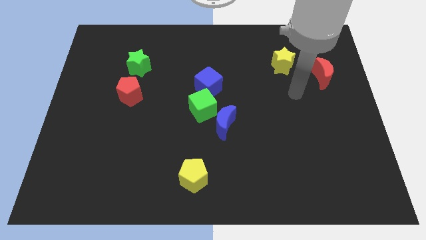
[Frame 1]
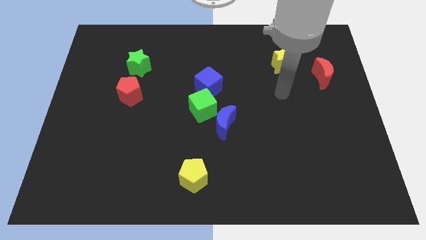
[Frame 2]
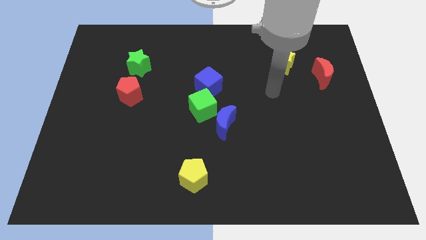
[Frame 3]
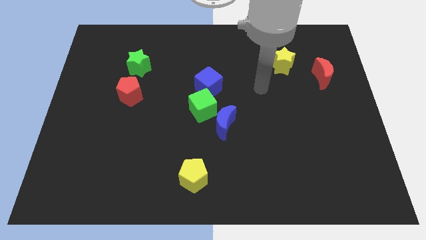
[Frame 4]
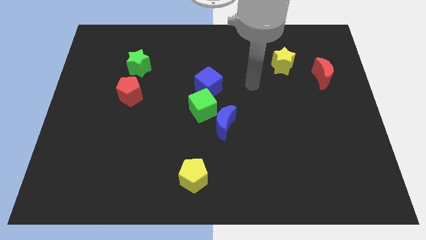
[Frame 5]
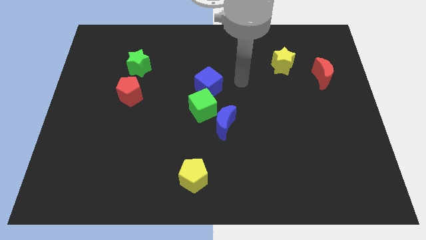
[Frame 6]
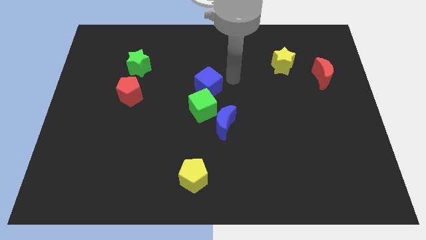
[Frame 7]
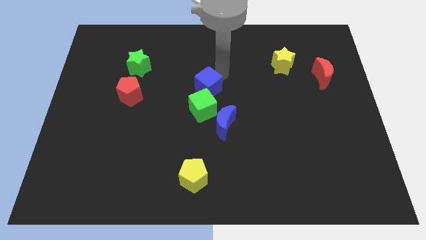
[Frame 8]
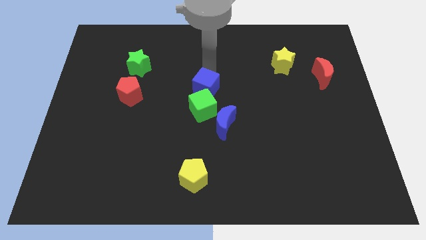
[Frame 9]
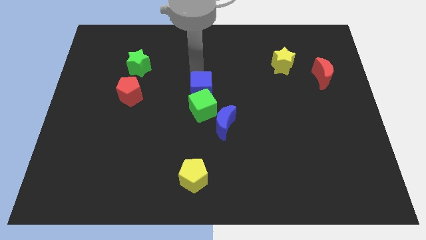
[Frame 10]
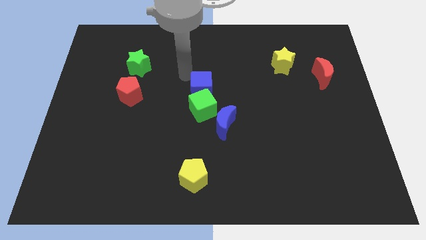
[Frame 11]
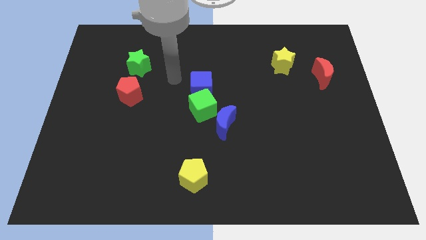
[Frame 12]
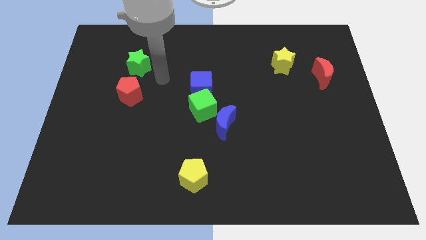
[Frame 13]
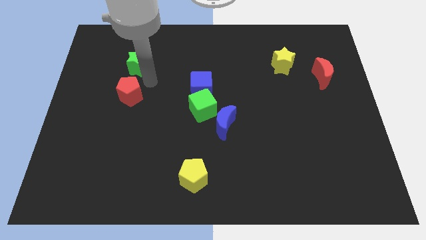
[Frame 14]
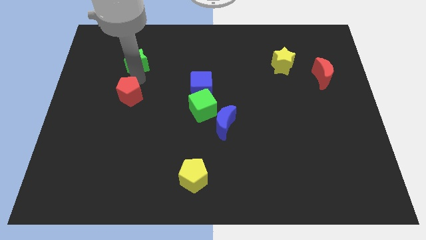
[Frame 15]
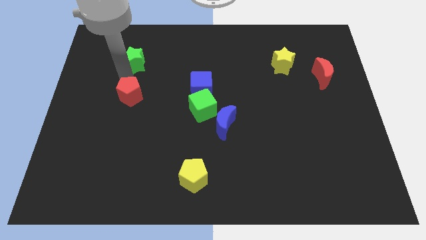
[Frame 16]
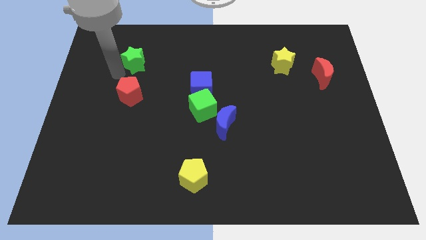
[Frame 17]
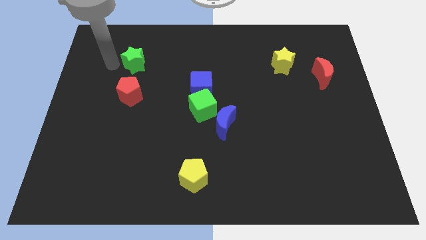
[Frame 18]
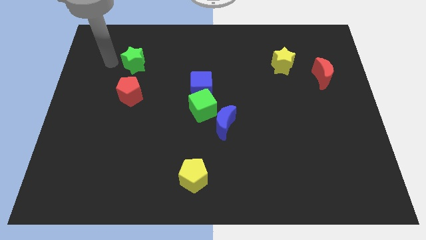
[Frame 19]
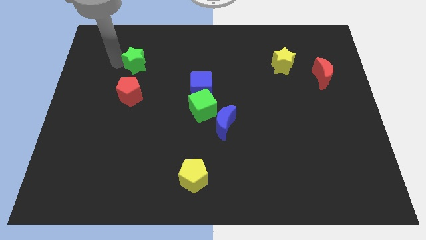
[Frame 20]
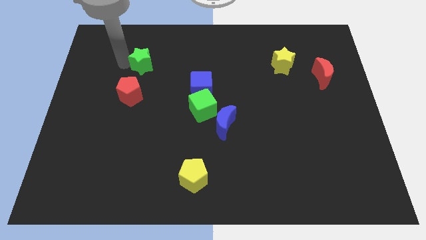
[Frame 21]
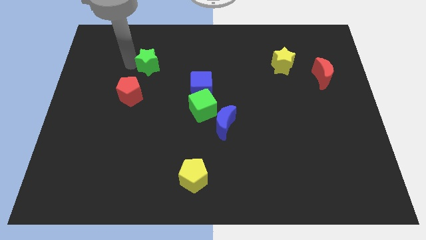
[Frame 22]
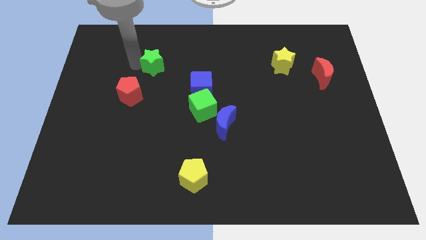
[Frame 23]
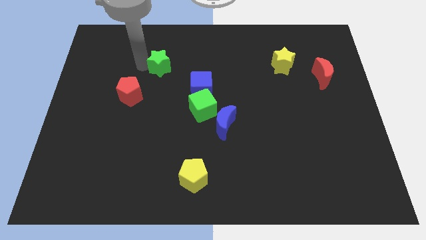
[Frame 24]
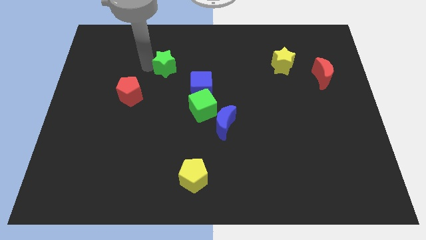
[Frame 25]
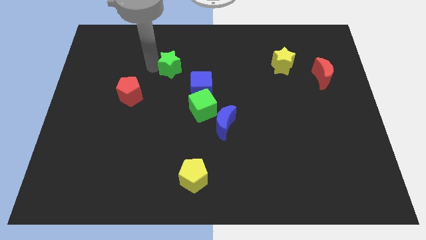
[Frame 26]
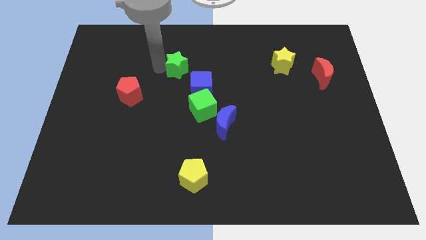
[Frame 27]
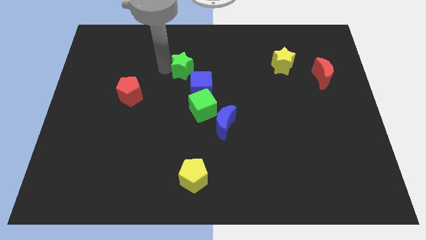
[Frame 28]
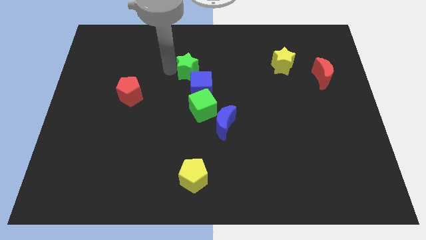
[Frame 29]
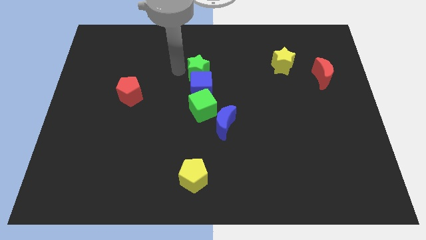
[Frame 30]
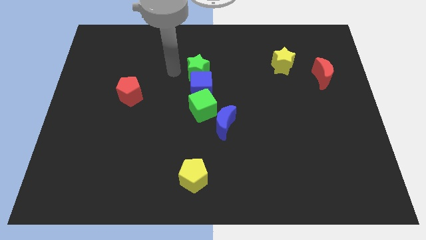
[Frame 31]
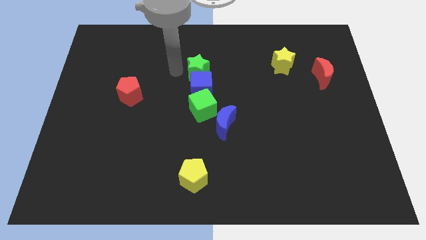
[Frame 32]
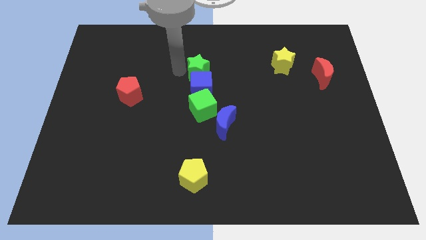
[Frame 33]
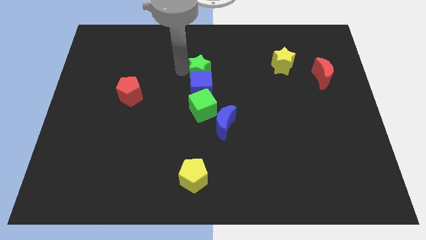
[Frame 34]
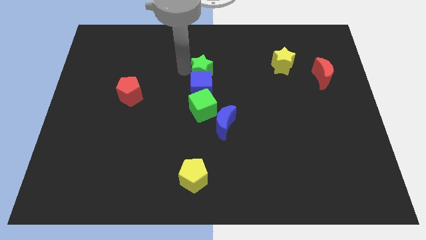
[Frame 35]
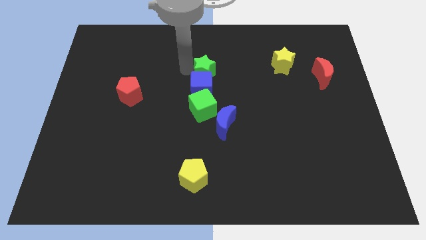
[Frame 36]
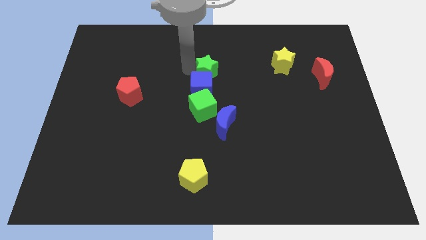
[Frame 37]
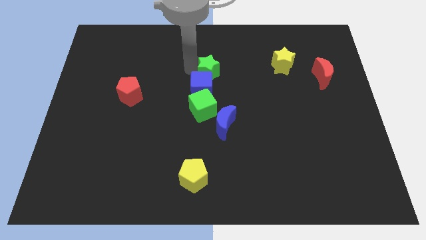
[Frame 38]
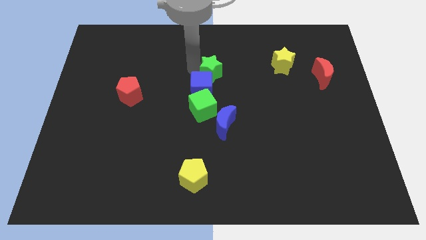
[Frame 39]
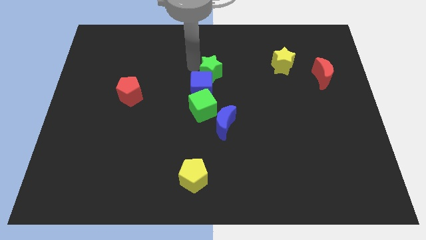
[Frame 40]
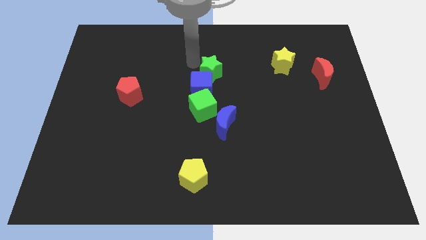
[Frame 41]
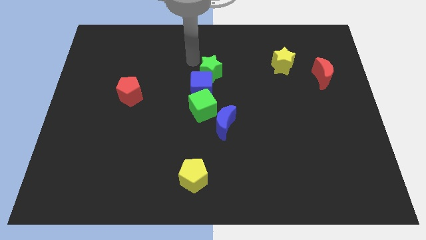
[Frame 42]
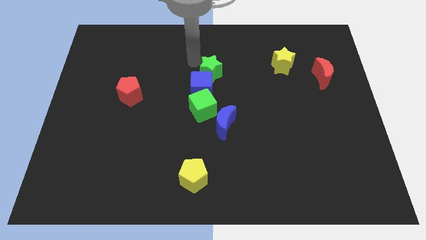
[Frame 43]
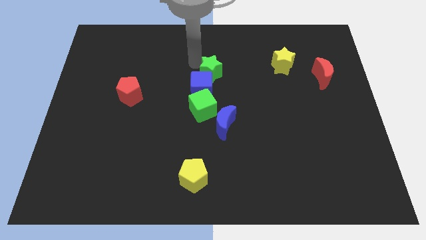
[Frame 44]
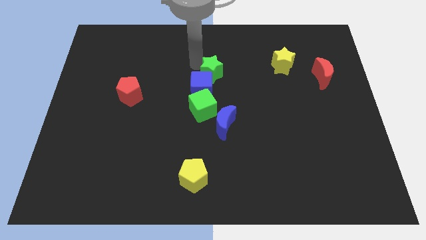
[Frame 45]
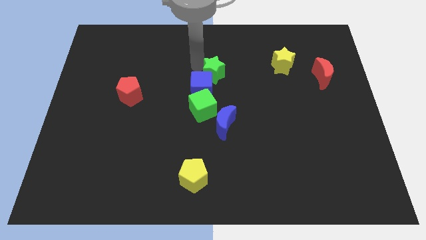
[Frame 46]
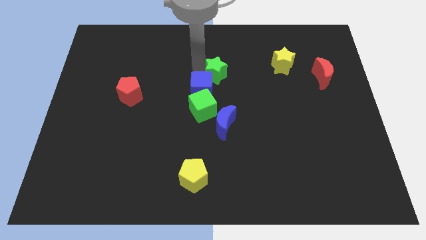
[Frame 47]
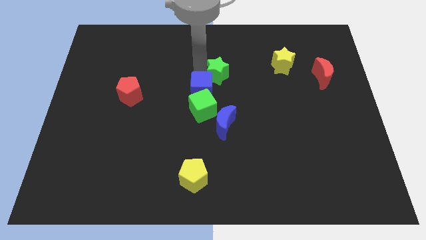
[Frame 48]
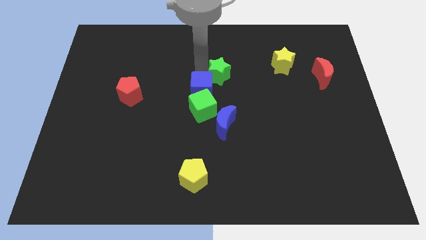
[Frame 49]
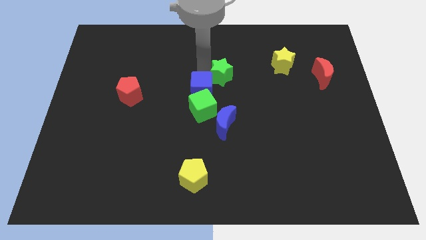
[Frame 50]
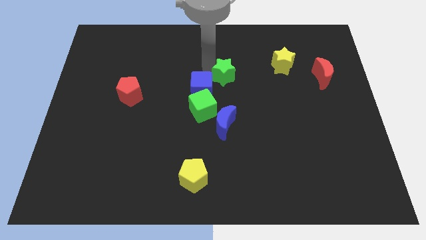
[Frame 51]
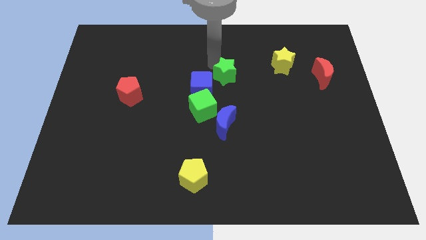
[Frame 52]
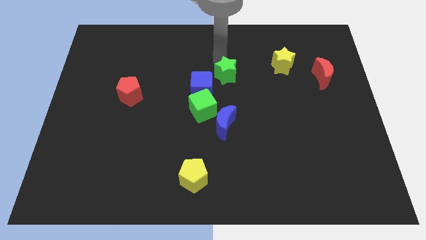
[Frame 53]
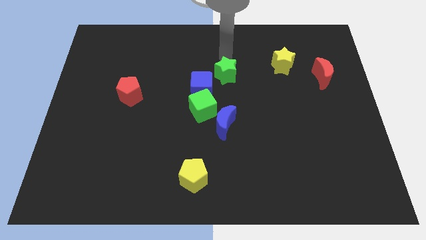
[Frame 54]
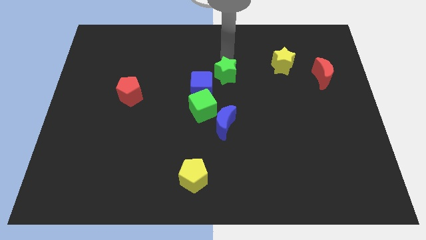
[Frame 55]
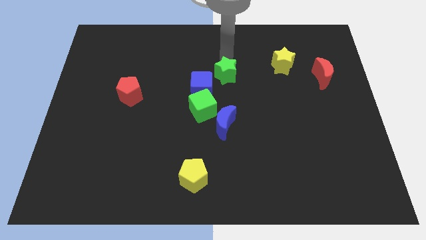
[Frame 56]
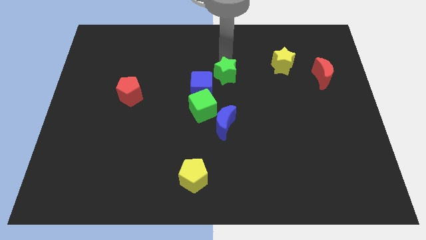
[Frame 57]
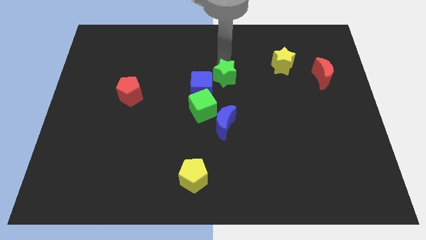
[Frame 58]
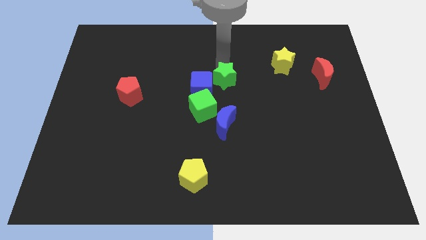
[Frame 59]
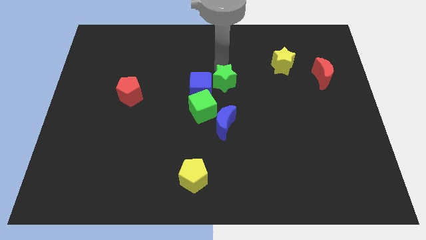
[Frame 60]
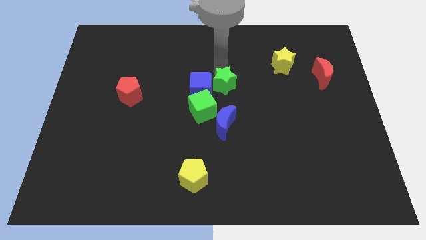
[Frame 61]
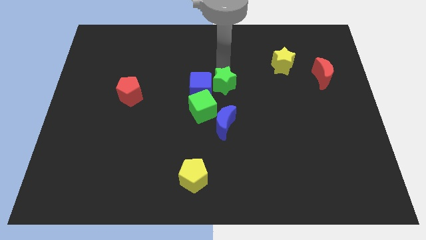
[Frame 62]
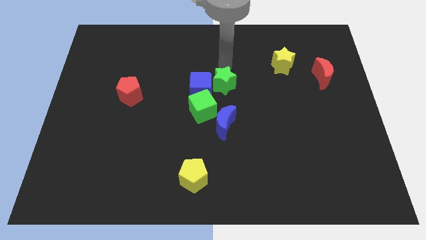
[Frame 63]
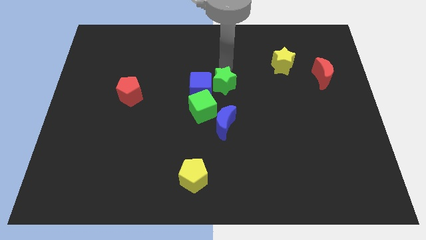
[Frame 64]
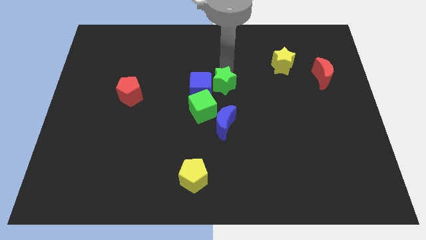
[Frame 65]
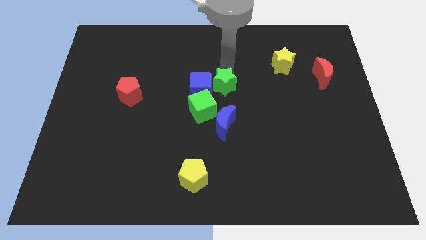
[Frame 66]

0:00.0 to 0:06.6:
put the green star diagonally down and to the right of the blue cube

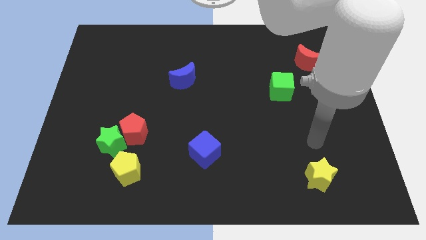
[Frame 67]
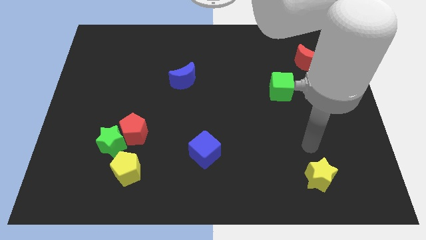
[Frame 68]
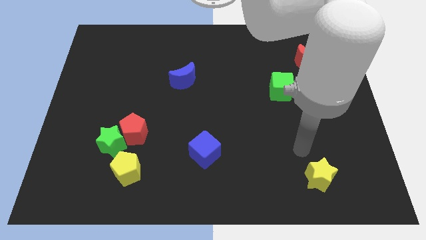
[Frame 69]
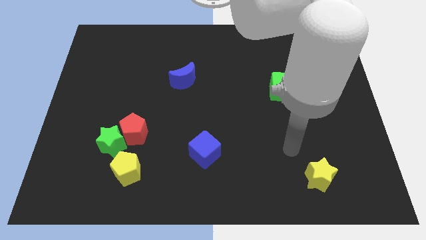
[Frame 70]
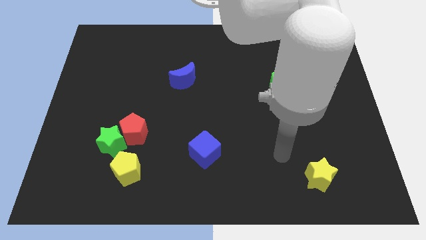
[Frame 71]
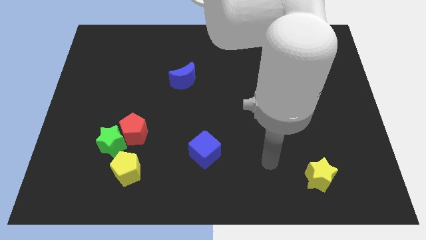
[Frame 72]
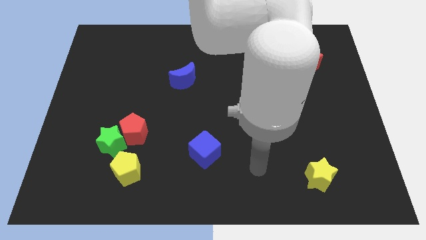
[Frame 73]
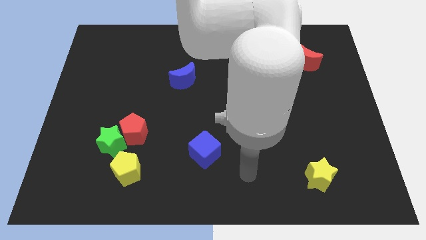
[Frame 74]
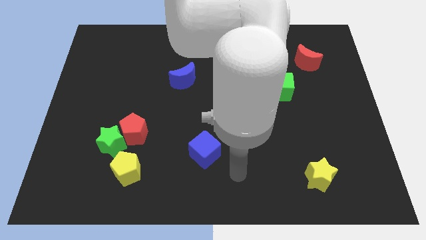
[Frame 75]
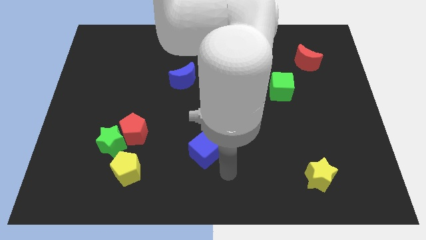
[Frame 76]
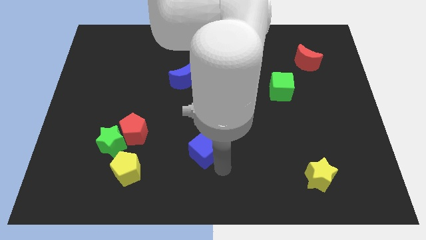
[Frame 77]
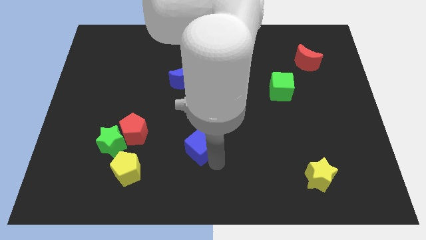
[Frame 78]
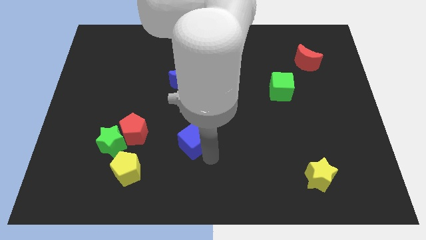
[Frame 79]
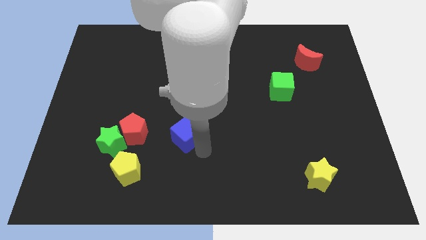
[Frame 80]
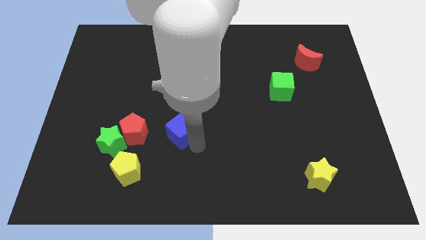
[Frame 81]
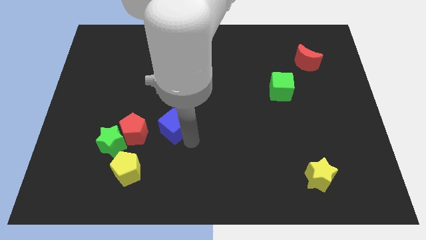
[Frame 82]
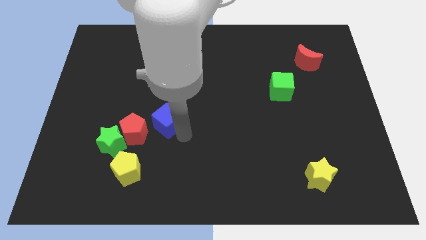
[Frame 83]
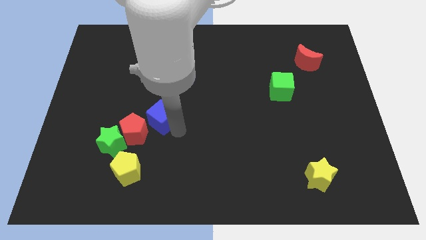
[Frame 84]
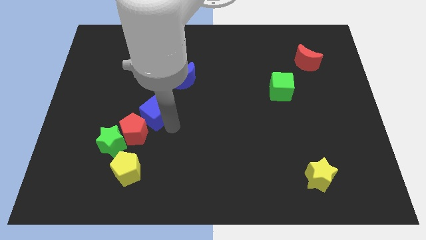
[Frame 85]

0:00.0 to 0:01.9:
put the blue cube to the top side of the red pentagon
